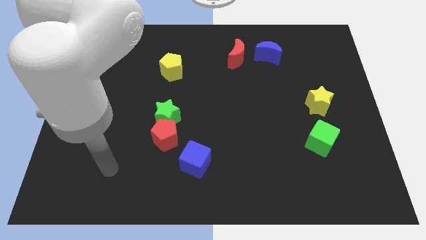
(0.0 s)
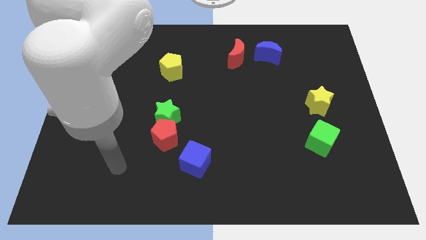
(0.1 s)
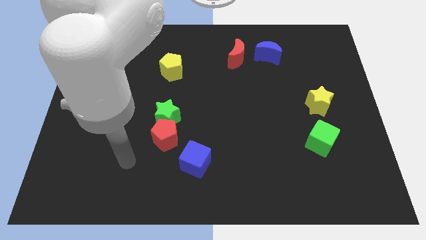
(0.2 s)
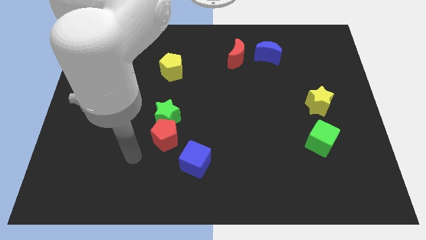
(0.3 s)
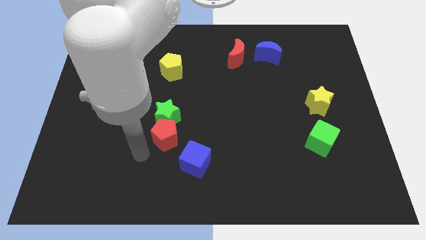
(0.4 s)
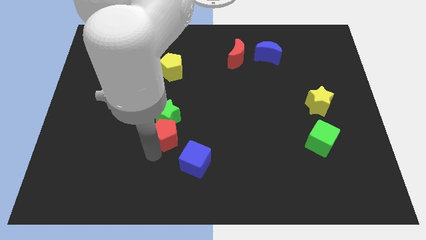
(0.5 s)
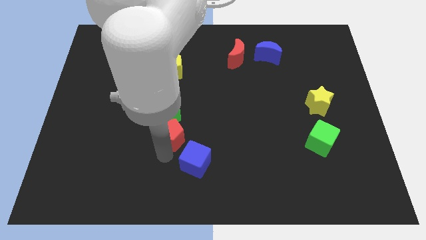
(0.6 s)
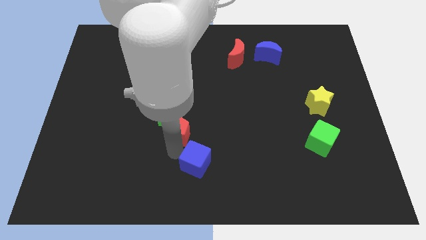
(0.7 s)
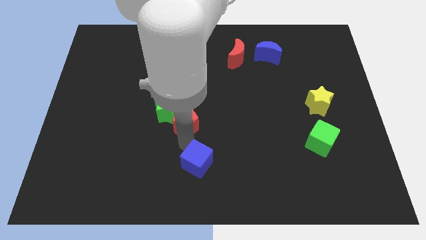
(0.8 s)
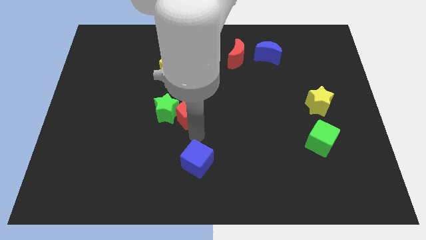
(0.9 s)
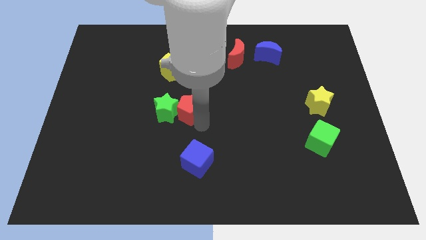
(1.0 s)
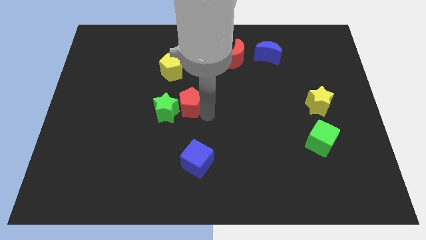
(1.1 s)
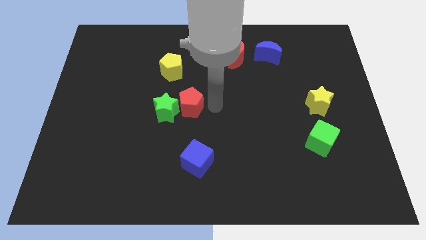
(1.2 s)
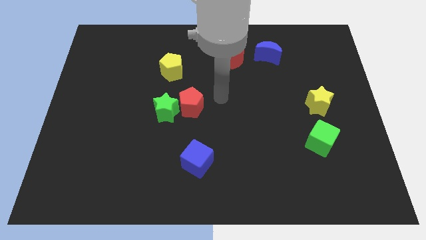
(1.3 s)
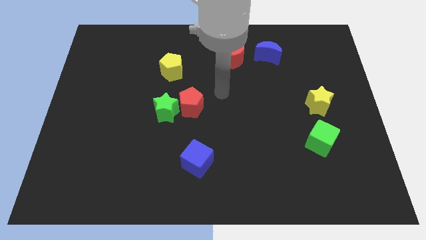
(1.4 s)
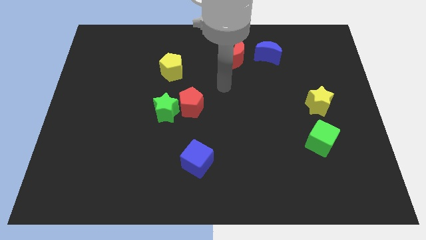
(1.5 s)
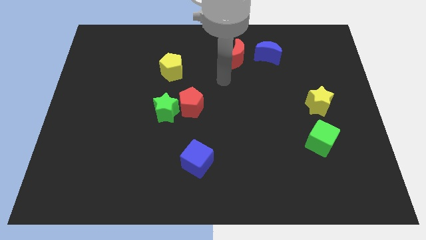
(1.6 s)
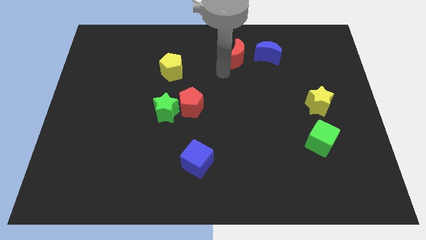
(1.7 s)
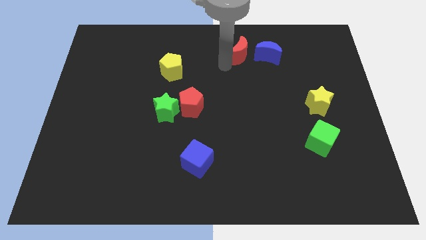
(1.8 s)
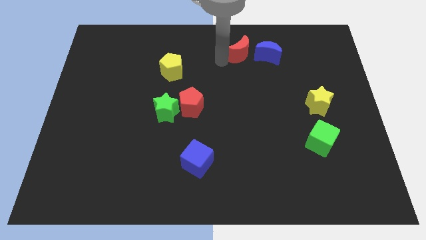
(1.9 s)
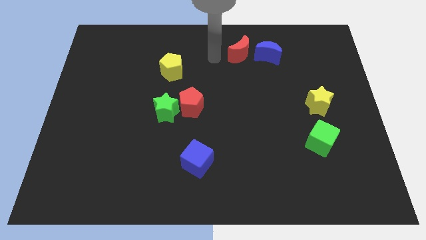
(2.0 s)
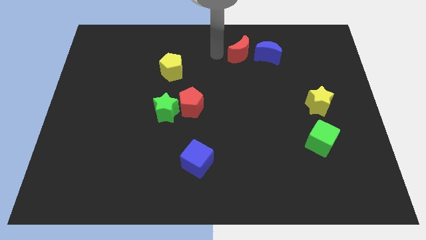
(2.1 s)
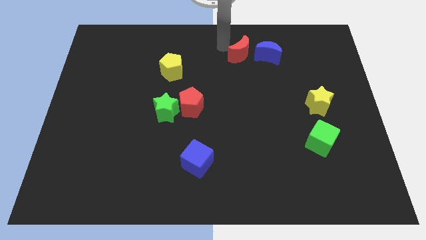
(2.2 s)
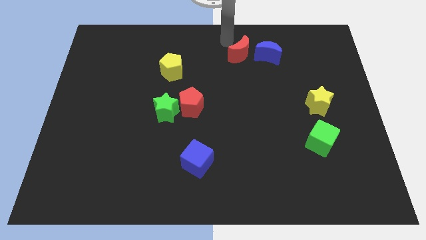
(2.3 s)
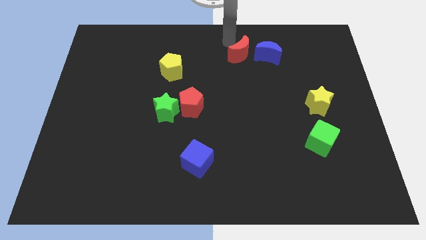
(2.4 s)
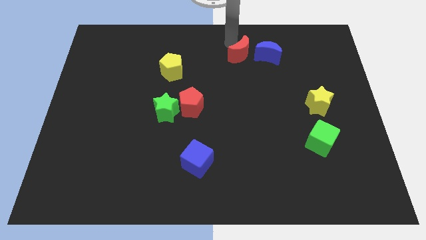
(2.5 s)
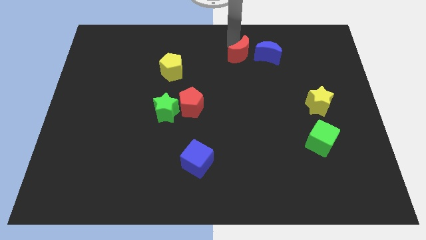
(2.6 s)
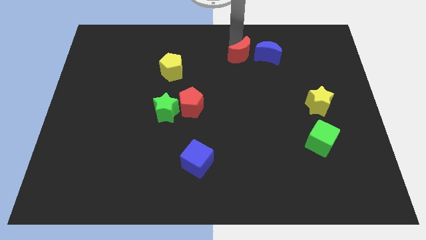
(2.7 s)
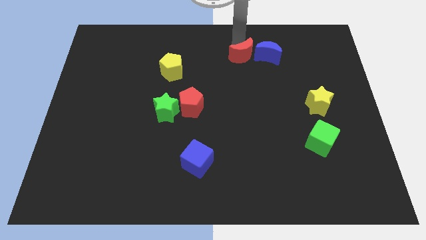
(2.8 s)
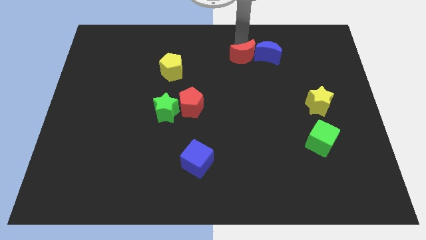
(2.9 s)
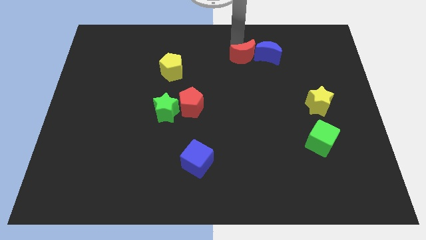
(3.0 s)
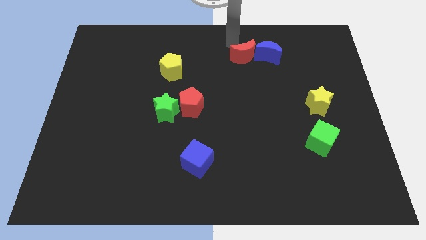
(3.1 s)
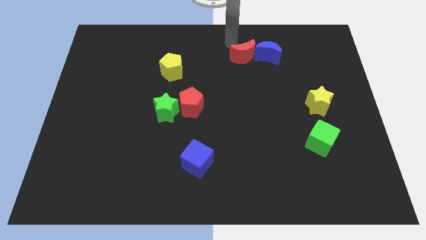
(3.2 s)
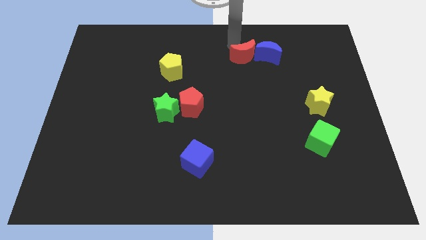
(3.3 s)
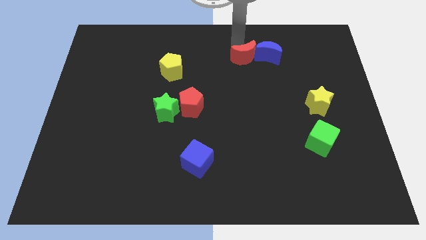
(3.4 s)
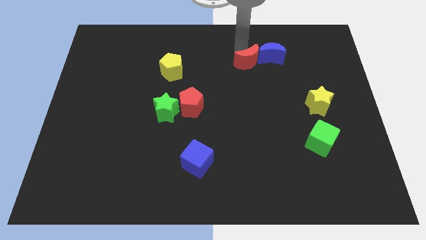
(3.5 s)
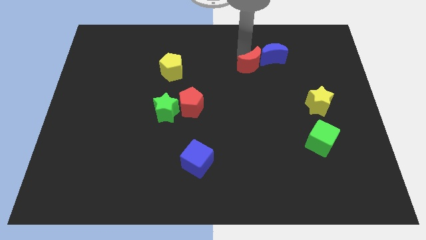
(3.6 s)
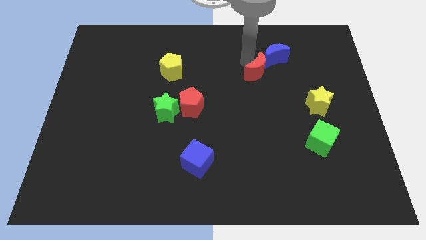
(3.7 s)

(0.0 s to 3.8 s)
push the red moon a bit downwards and to the right diagonally

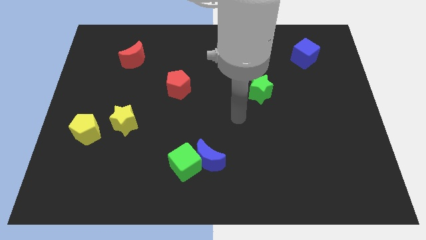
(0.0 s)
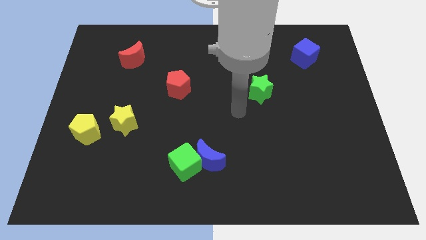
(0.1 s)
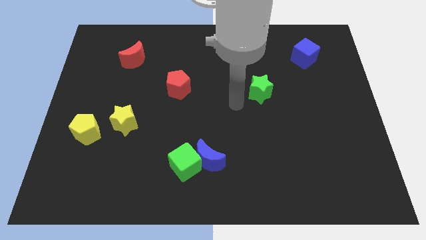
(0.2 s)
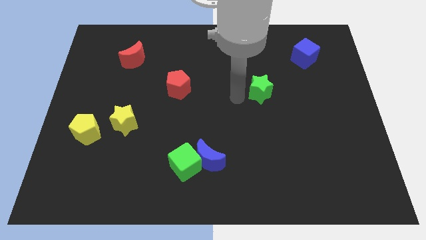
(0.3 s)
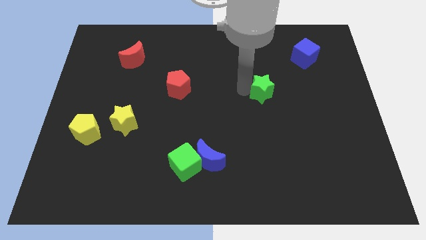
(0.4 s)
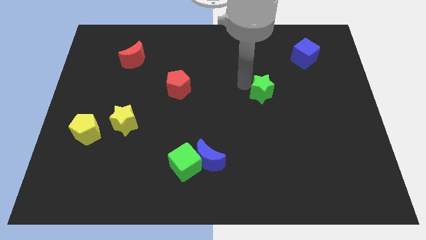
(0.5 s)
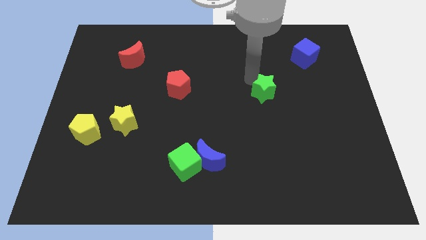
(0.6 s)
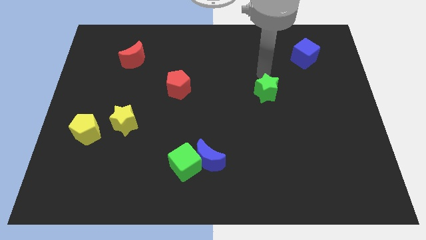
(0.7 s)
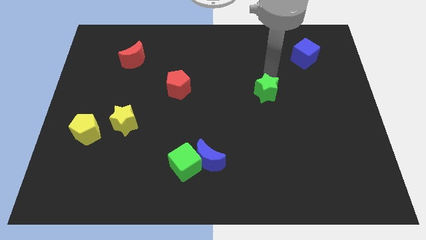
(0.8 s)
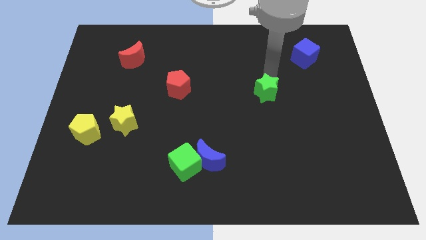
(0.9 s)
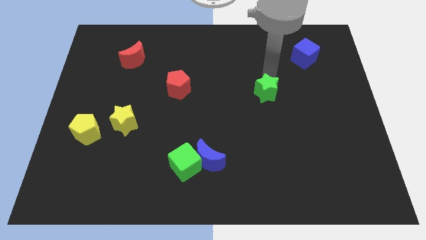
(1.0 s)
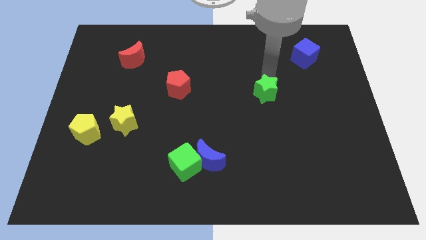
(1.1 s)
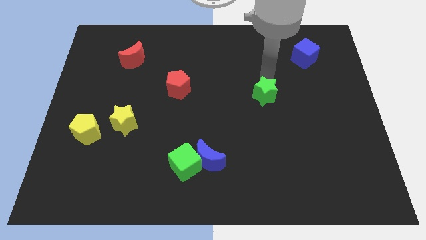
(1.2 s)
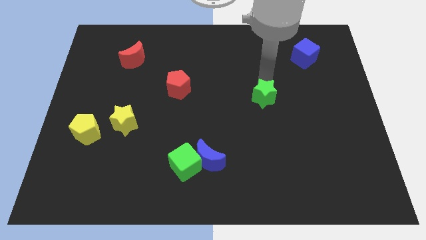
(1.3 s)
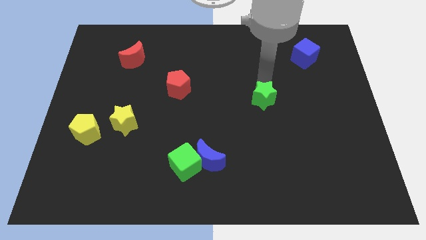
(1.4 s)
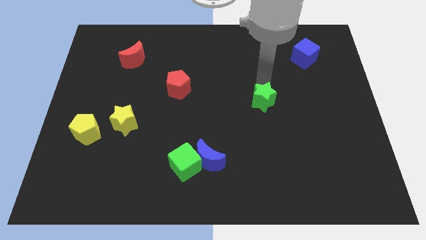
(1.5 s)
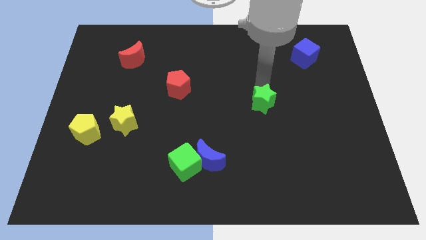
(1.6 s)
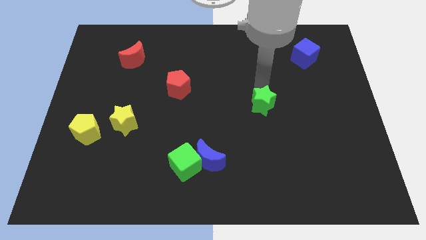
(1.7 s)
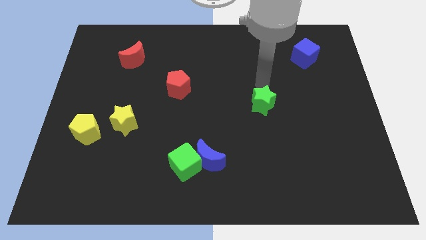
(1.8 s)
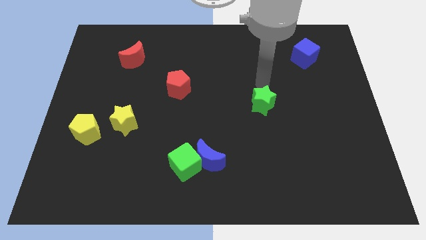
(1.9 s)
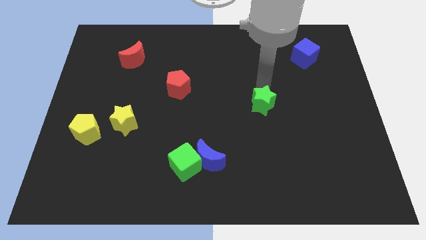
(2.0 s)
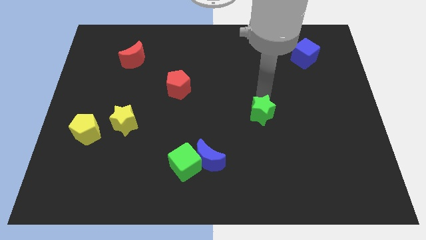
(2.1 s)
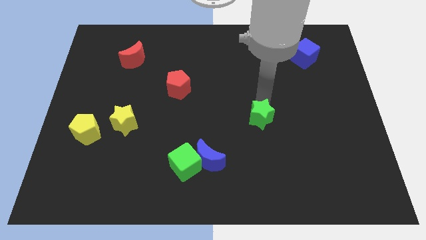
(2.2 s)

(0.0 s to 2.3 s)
move the green star a little bit down

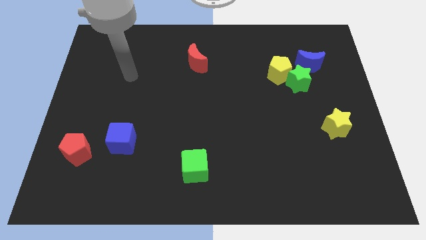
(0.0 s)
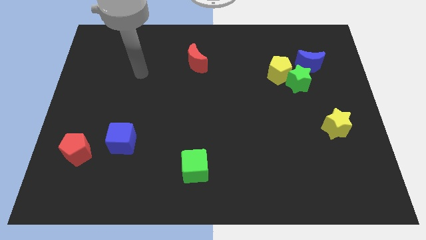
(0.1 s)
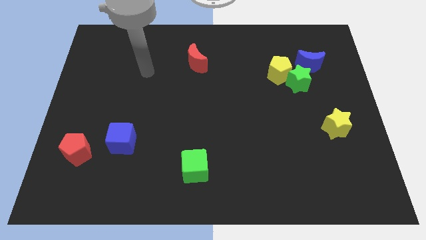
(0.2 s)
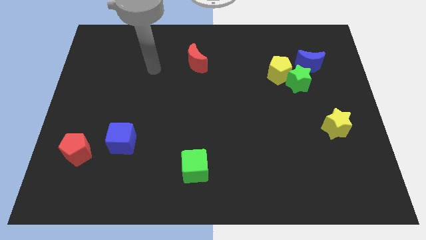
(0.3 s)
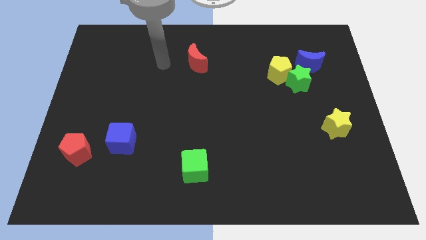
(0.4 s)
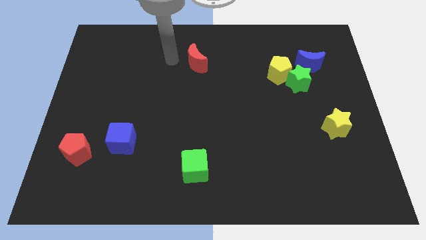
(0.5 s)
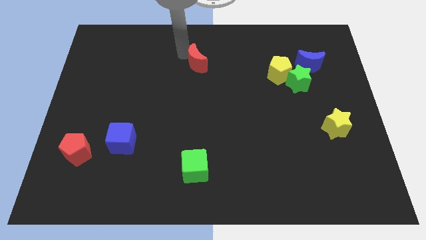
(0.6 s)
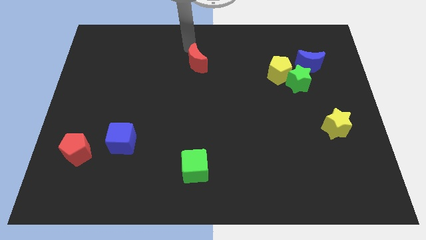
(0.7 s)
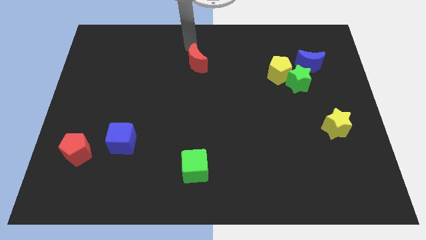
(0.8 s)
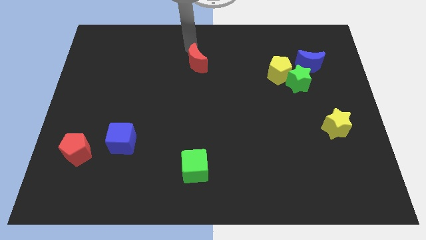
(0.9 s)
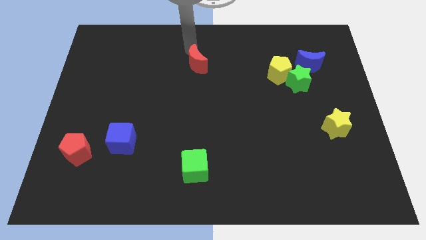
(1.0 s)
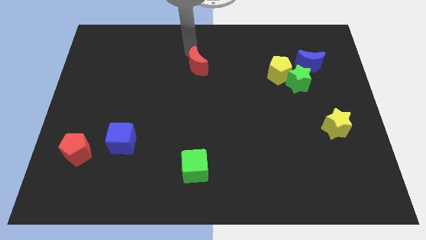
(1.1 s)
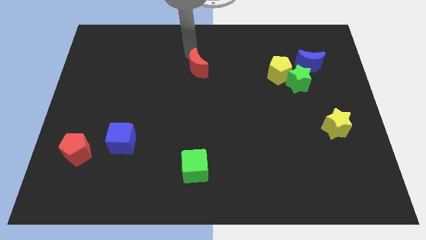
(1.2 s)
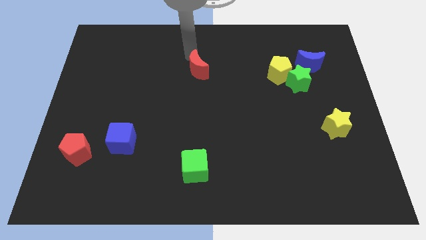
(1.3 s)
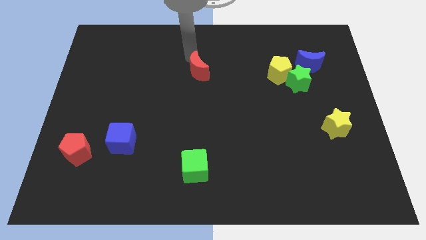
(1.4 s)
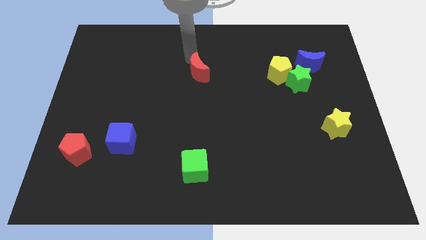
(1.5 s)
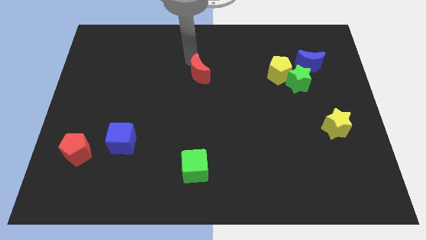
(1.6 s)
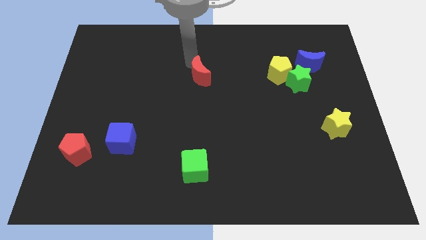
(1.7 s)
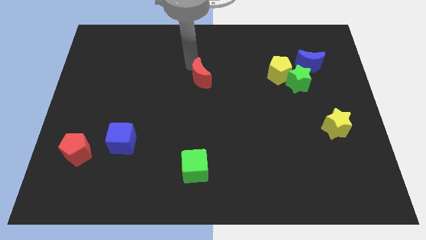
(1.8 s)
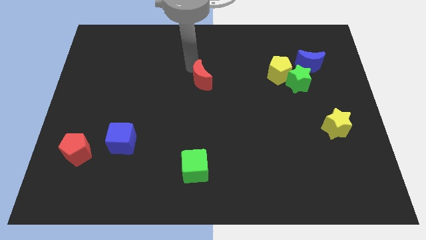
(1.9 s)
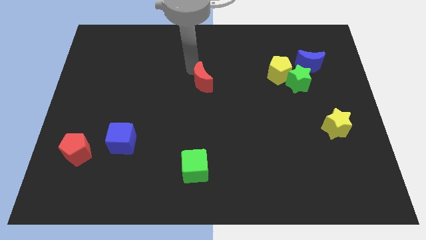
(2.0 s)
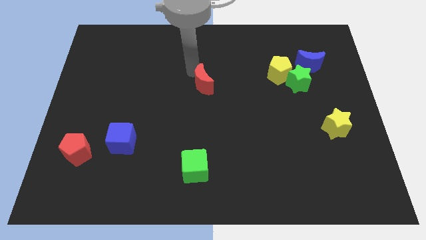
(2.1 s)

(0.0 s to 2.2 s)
push the red moon somewhat down

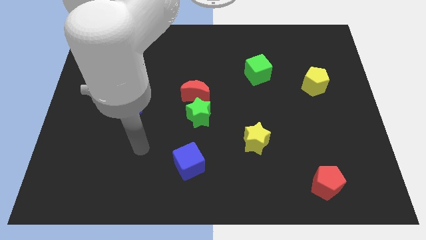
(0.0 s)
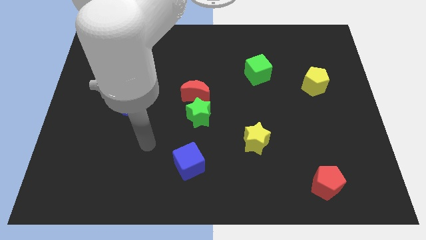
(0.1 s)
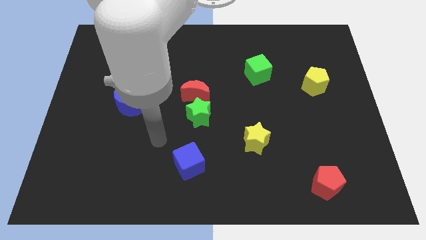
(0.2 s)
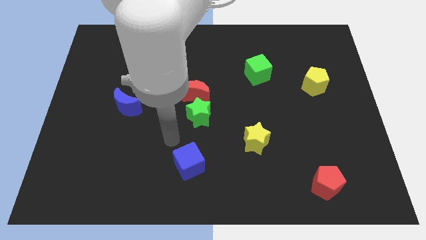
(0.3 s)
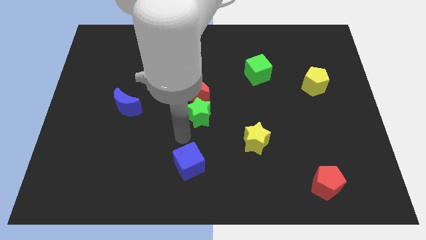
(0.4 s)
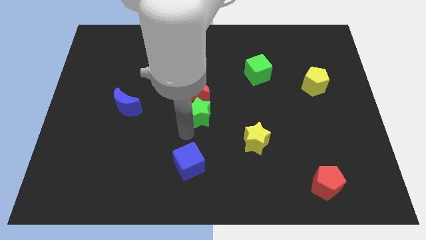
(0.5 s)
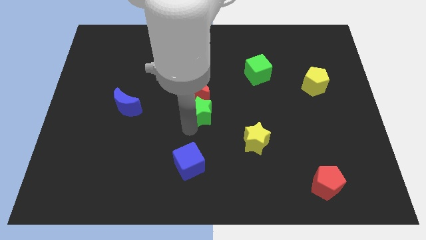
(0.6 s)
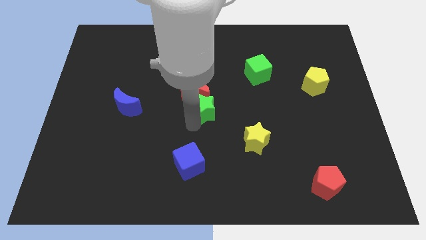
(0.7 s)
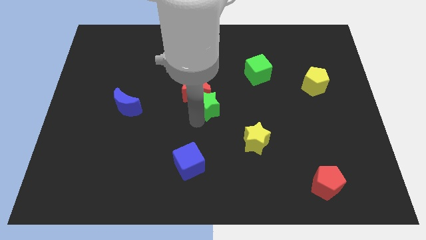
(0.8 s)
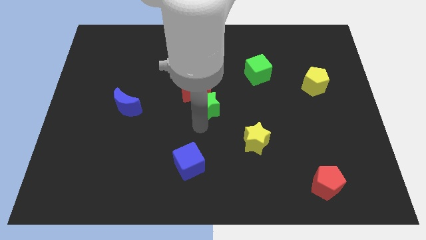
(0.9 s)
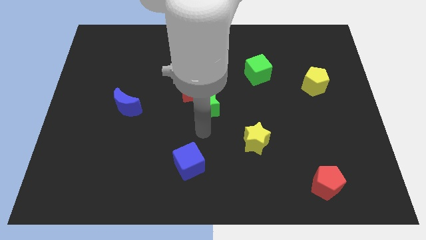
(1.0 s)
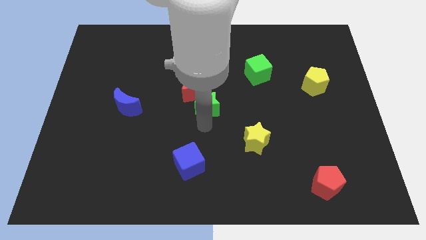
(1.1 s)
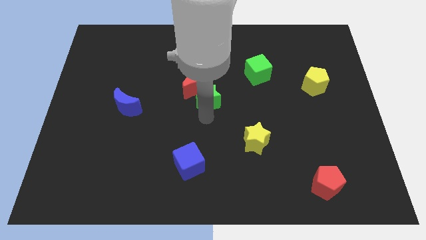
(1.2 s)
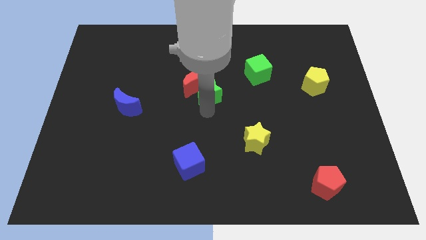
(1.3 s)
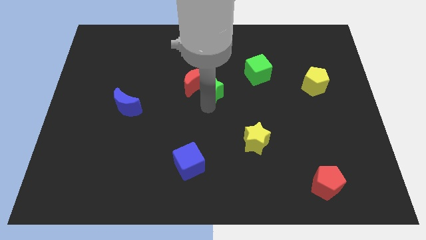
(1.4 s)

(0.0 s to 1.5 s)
slightly push the green star up
